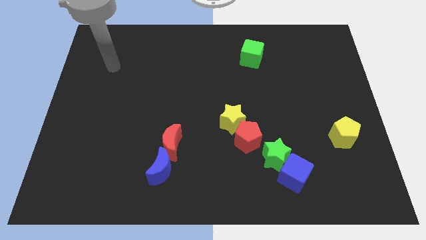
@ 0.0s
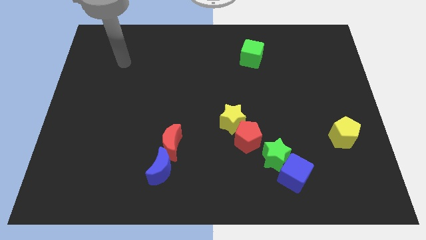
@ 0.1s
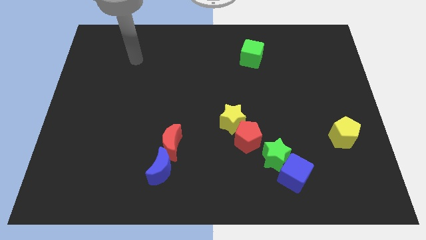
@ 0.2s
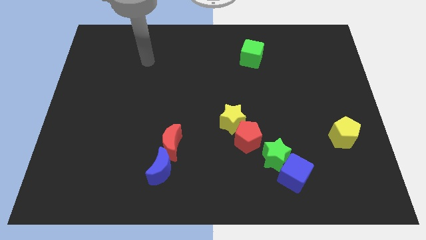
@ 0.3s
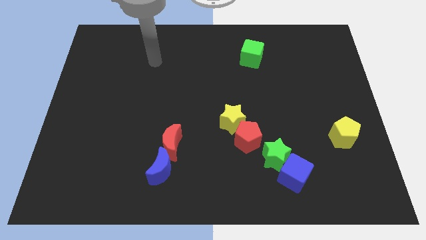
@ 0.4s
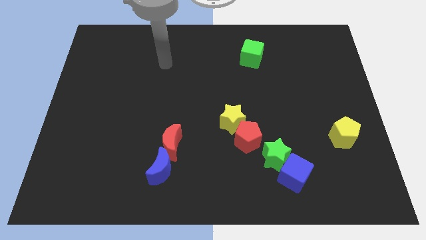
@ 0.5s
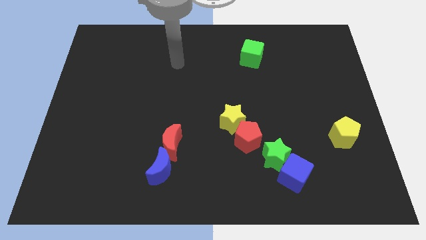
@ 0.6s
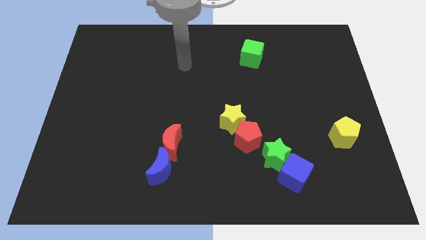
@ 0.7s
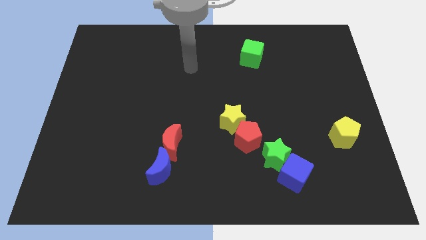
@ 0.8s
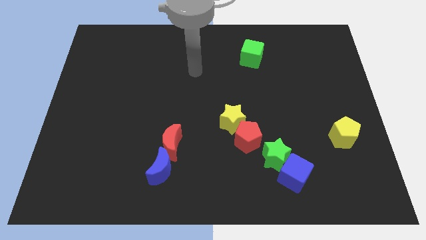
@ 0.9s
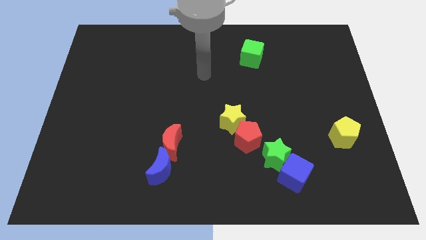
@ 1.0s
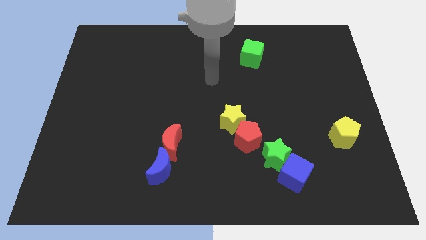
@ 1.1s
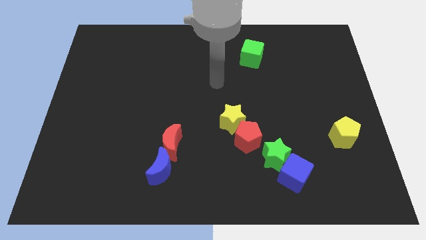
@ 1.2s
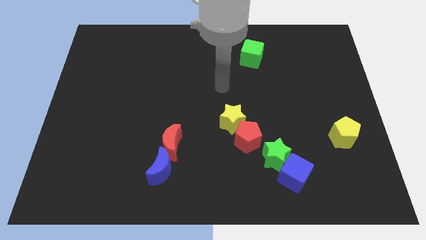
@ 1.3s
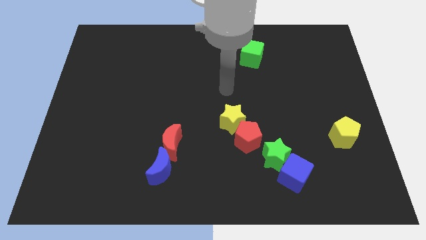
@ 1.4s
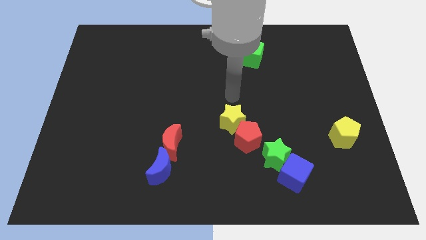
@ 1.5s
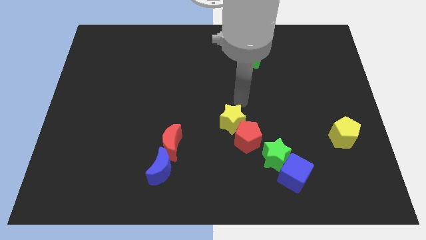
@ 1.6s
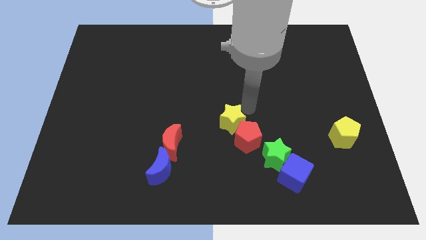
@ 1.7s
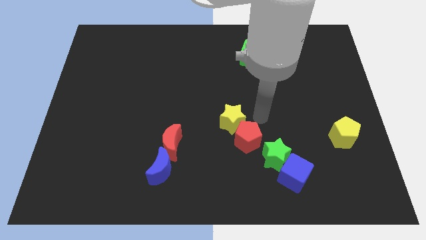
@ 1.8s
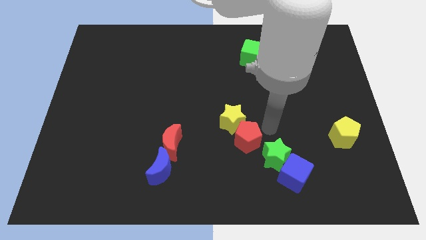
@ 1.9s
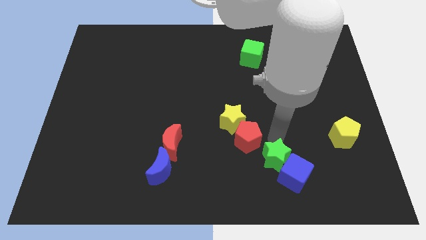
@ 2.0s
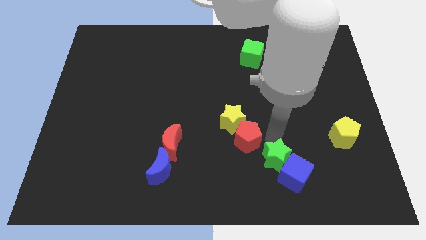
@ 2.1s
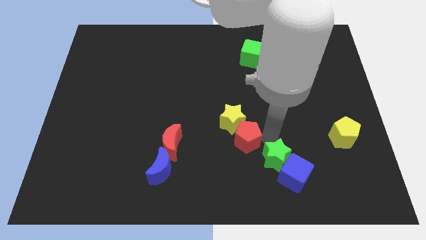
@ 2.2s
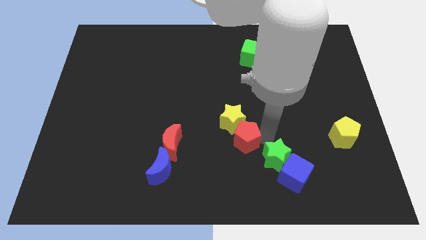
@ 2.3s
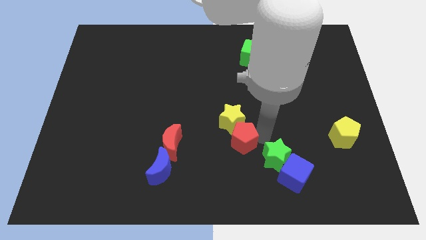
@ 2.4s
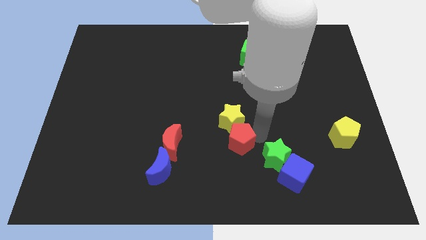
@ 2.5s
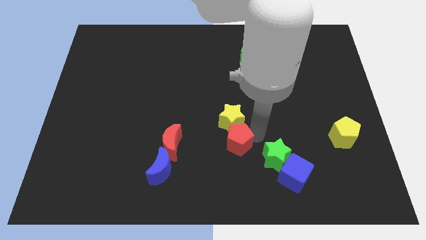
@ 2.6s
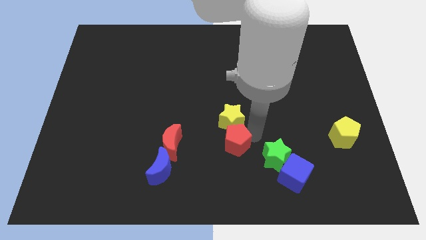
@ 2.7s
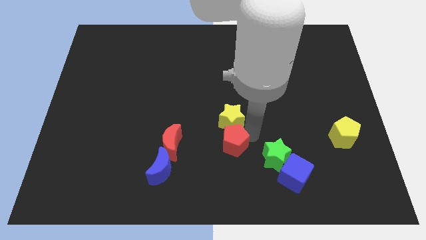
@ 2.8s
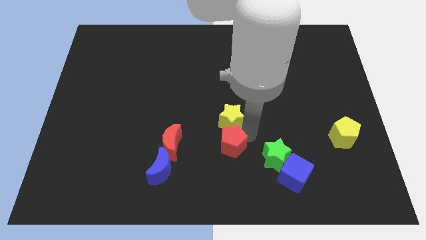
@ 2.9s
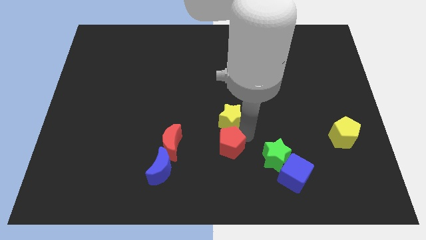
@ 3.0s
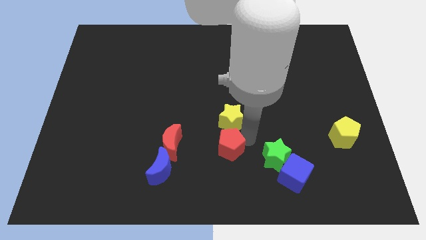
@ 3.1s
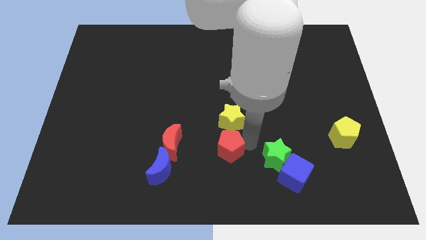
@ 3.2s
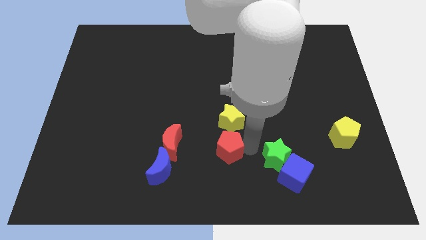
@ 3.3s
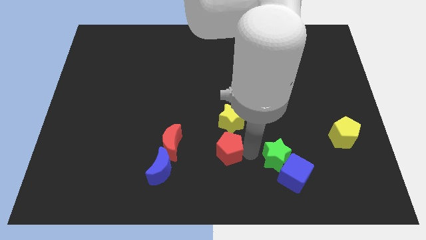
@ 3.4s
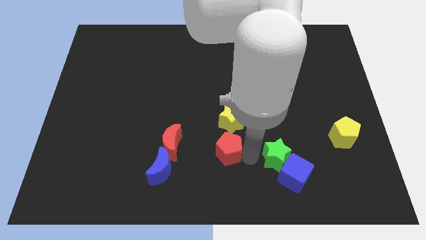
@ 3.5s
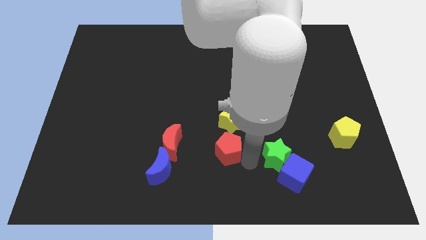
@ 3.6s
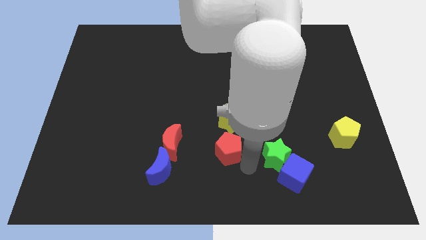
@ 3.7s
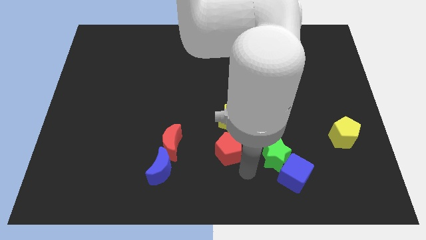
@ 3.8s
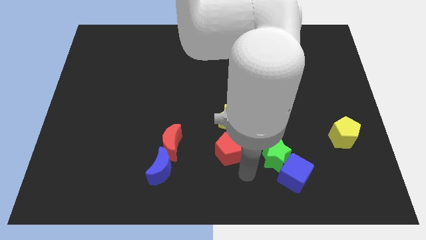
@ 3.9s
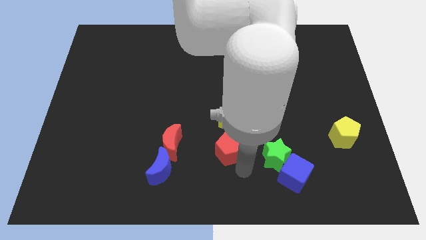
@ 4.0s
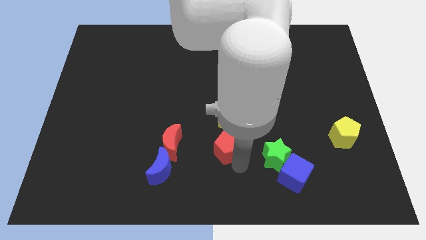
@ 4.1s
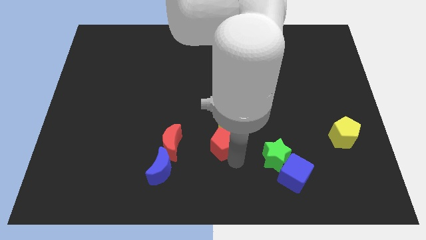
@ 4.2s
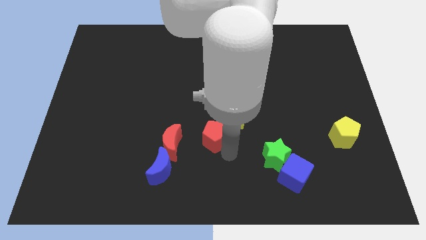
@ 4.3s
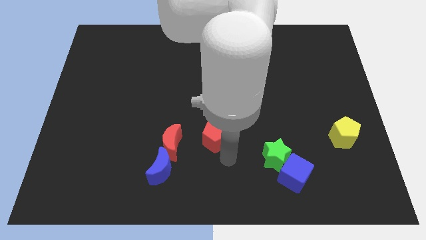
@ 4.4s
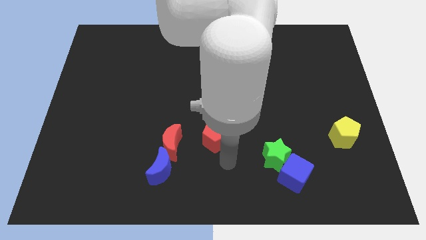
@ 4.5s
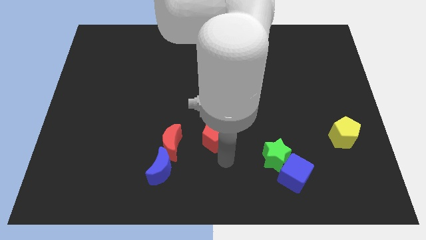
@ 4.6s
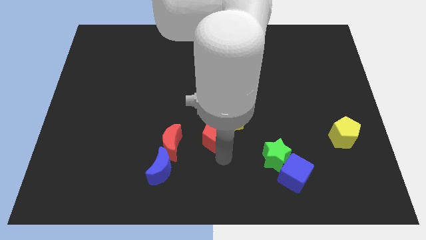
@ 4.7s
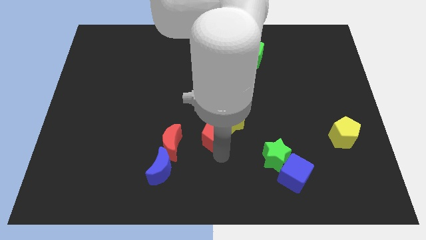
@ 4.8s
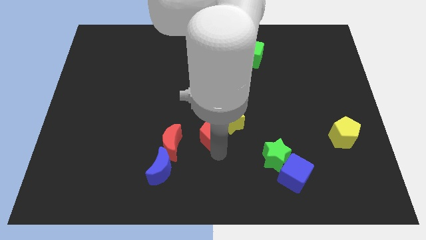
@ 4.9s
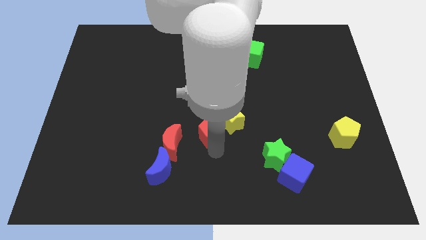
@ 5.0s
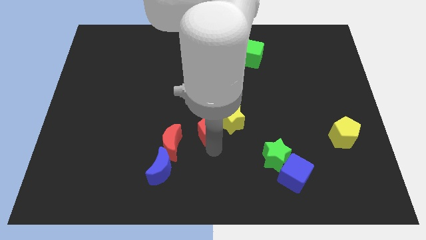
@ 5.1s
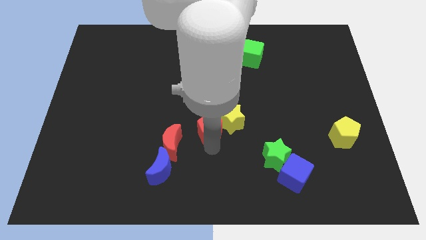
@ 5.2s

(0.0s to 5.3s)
move the red pentagon up and to the left a bit

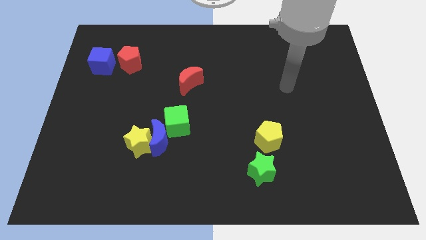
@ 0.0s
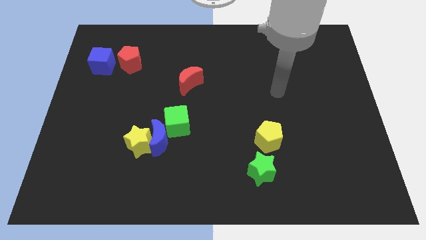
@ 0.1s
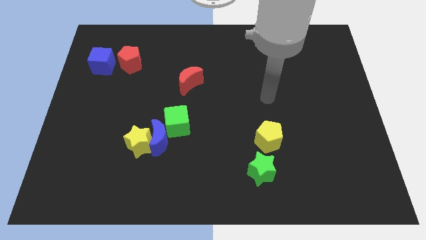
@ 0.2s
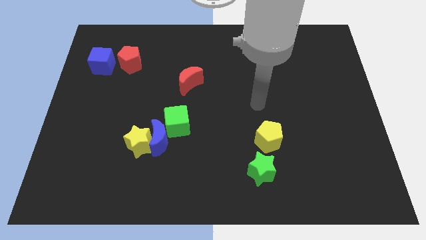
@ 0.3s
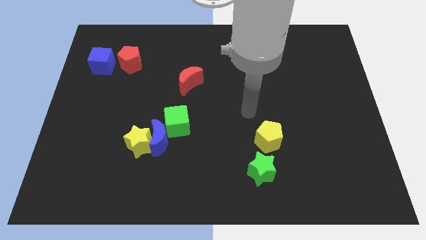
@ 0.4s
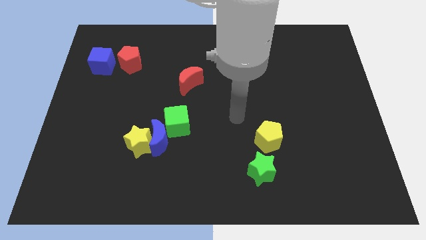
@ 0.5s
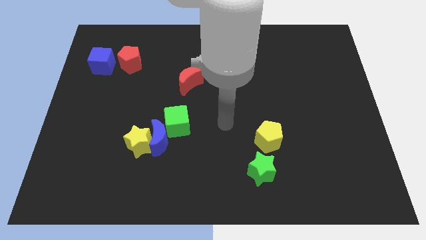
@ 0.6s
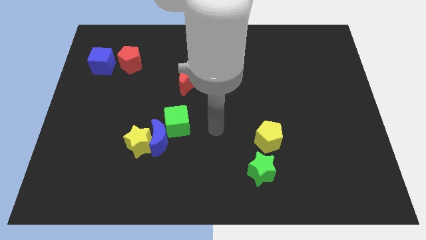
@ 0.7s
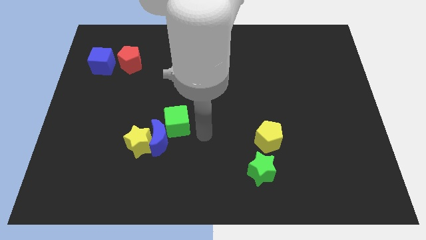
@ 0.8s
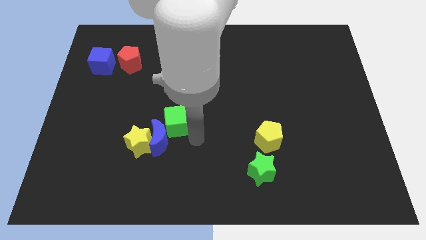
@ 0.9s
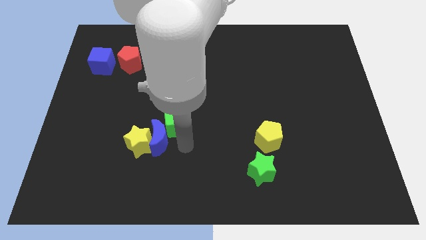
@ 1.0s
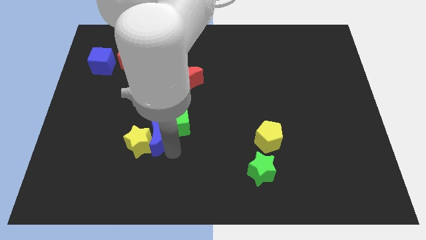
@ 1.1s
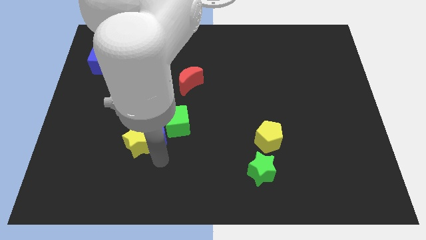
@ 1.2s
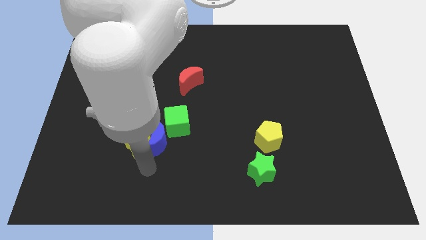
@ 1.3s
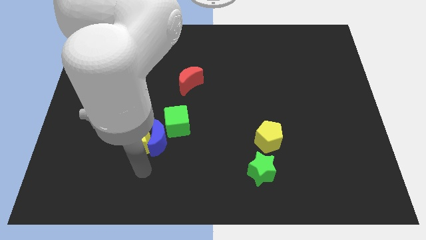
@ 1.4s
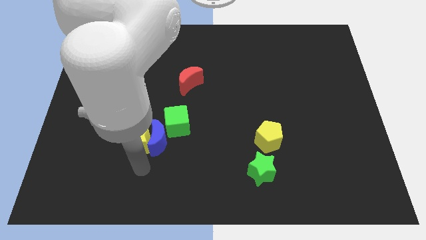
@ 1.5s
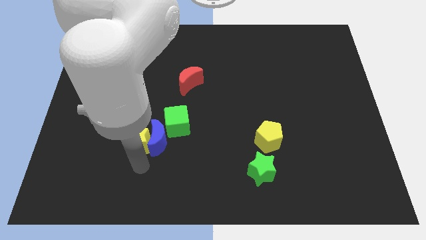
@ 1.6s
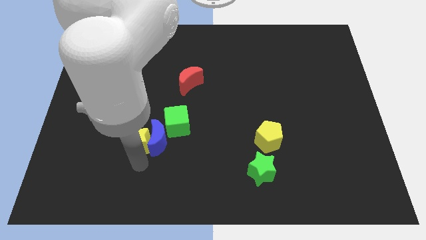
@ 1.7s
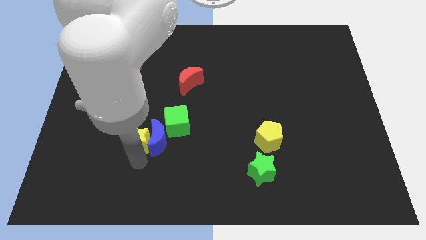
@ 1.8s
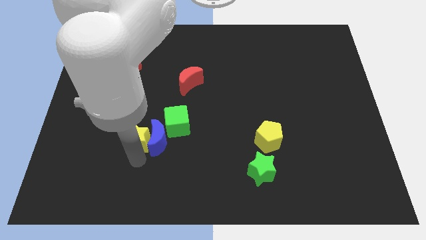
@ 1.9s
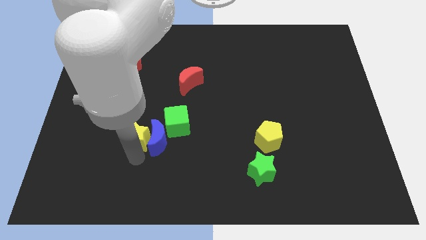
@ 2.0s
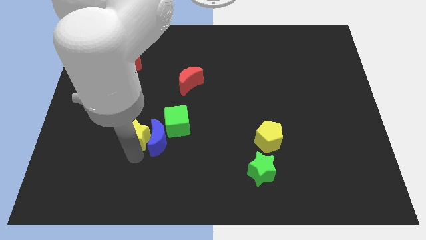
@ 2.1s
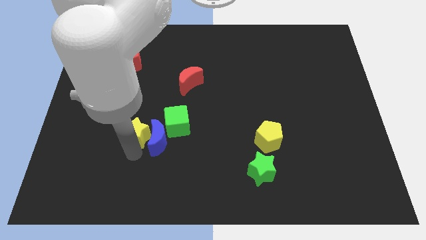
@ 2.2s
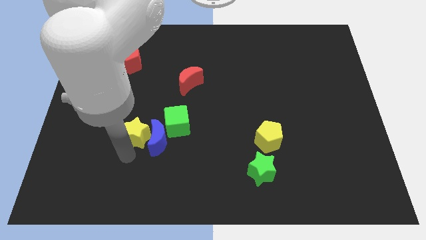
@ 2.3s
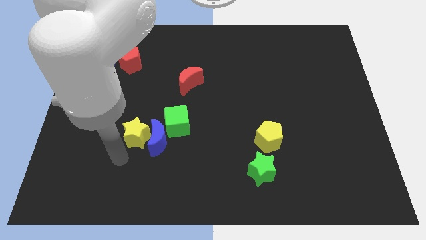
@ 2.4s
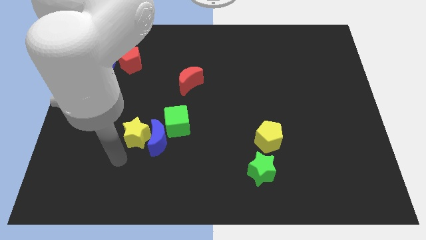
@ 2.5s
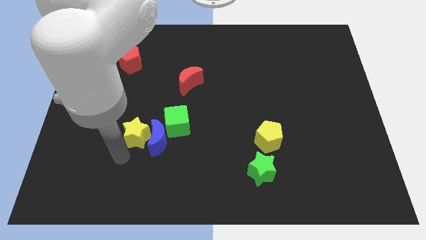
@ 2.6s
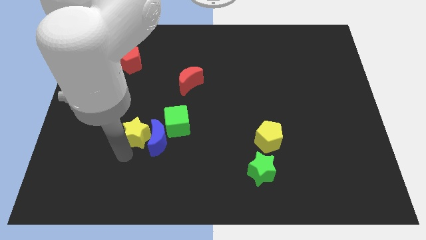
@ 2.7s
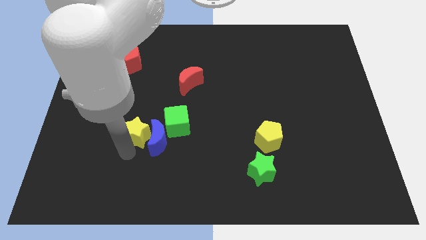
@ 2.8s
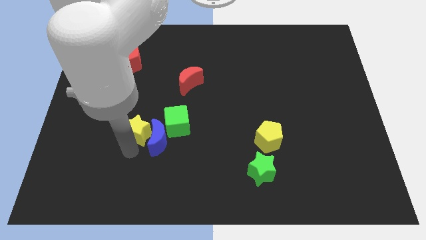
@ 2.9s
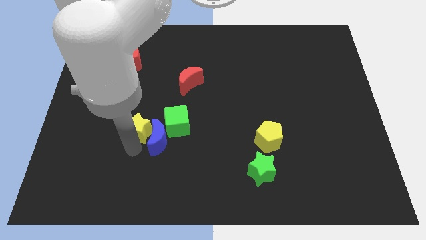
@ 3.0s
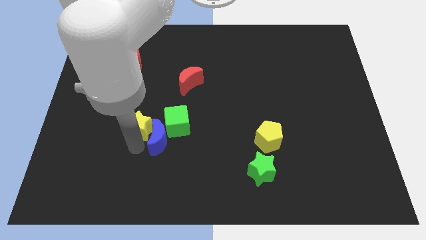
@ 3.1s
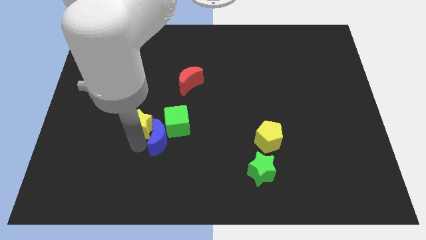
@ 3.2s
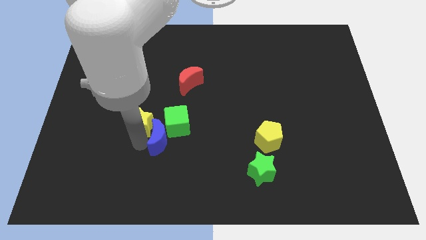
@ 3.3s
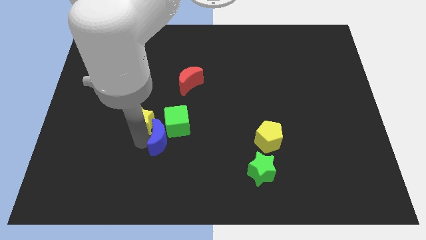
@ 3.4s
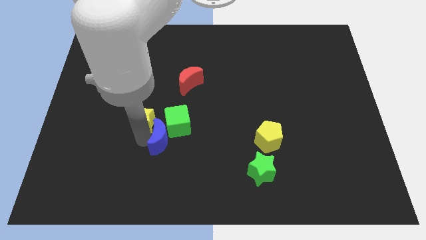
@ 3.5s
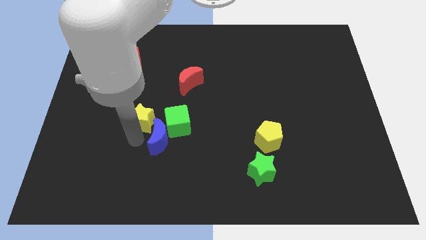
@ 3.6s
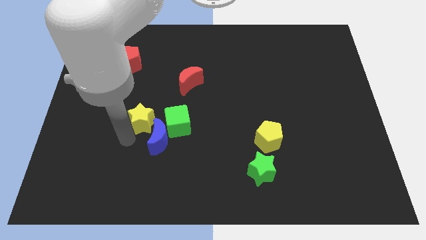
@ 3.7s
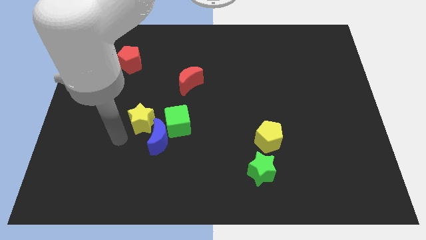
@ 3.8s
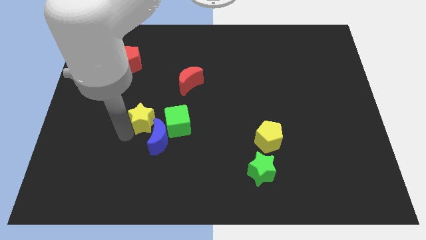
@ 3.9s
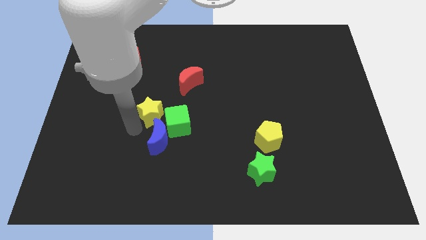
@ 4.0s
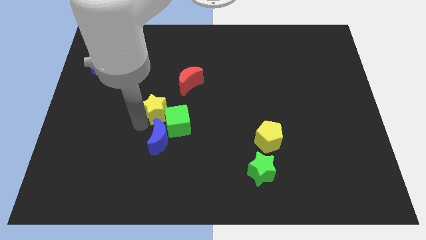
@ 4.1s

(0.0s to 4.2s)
push the yellow star up and right a little
